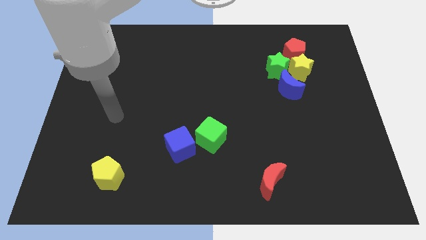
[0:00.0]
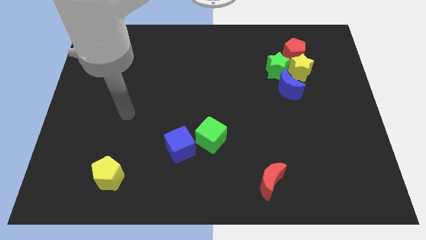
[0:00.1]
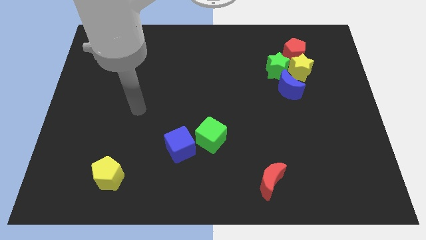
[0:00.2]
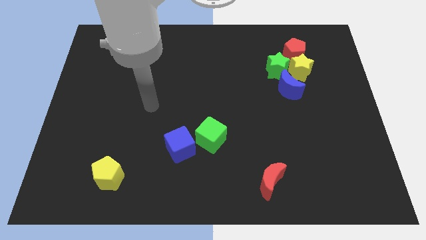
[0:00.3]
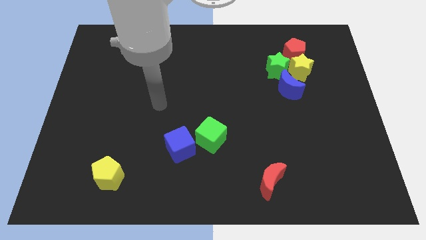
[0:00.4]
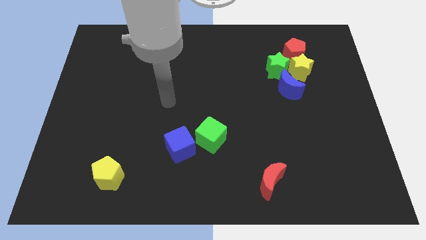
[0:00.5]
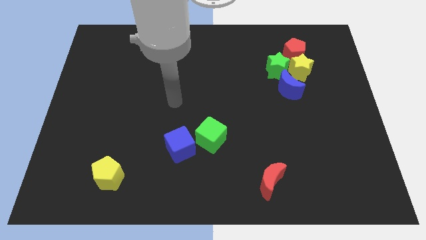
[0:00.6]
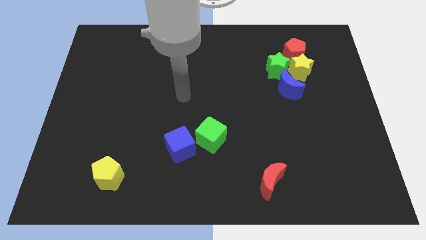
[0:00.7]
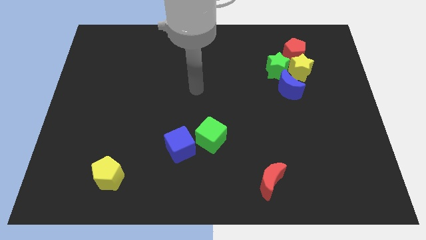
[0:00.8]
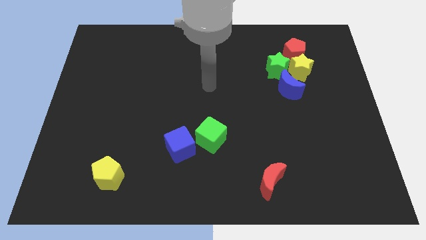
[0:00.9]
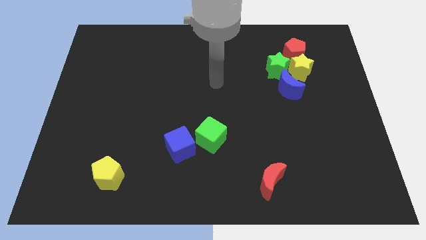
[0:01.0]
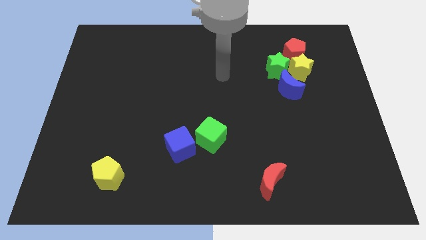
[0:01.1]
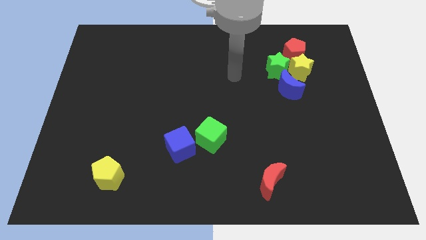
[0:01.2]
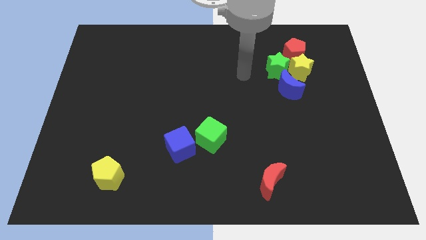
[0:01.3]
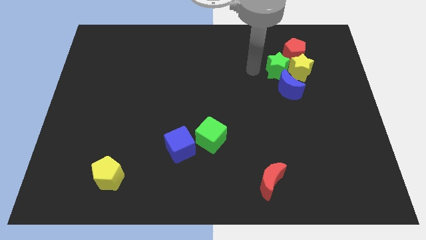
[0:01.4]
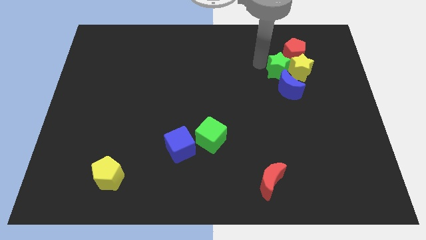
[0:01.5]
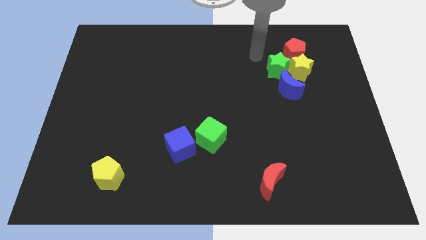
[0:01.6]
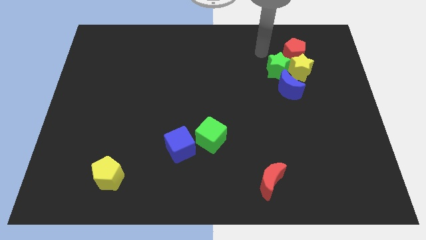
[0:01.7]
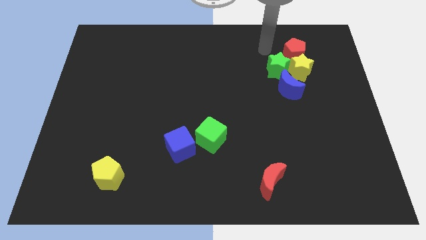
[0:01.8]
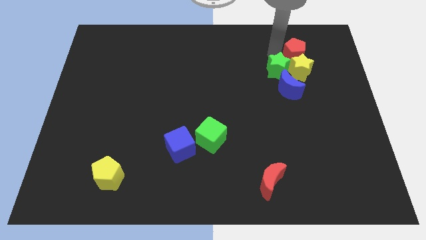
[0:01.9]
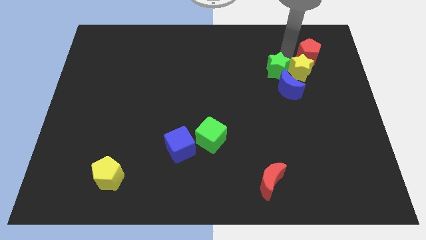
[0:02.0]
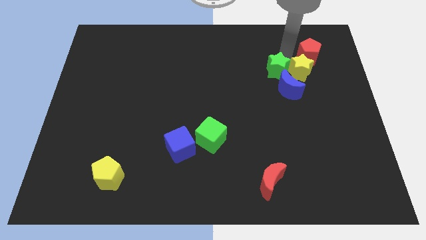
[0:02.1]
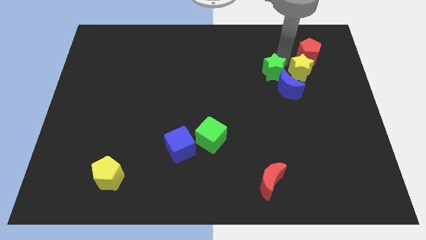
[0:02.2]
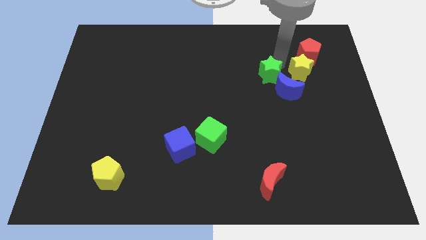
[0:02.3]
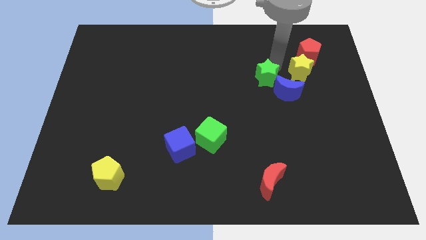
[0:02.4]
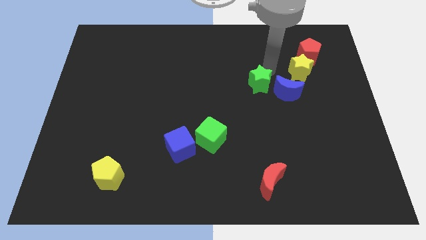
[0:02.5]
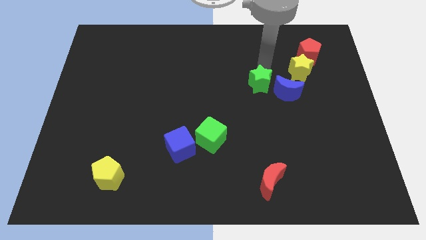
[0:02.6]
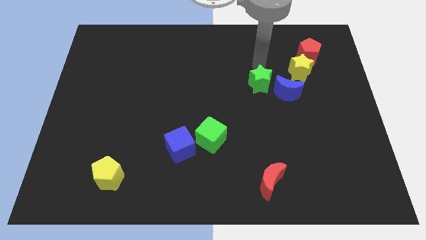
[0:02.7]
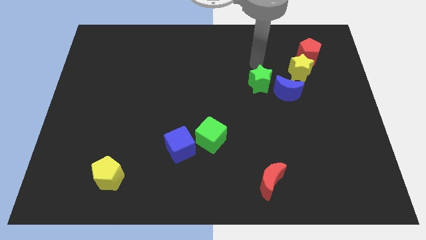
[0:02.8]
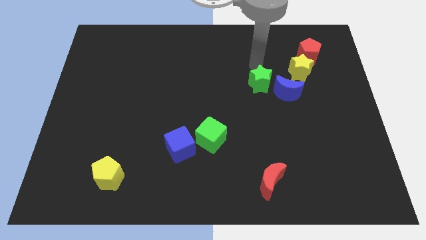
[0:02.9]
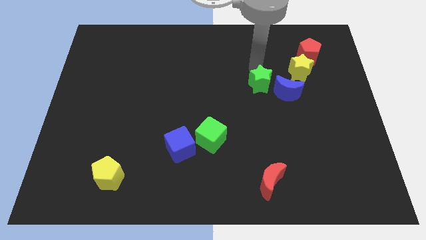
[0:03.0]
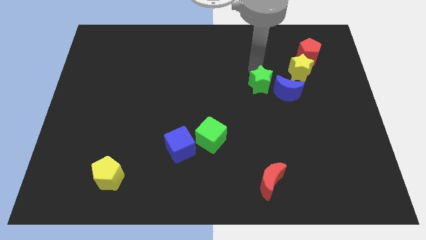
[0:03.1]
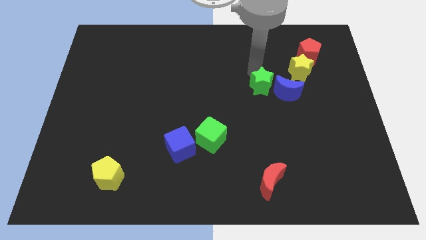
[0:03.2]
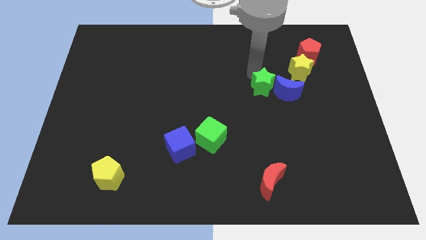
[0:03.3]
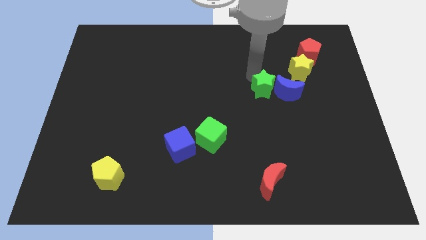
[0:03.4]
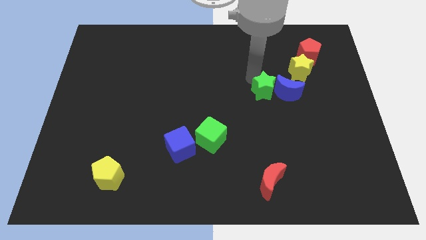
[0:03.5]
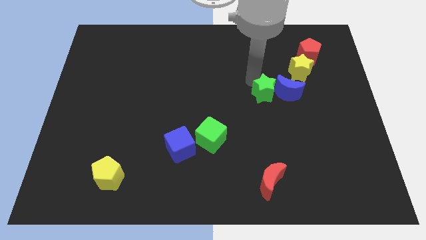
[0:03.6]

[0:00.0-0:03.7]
slide the green star a little down

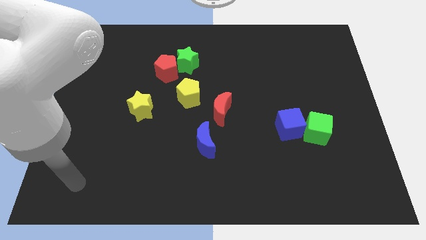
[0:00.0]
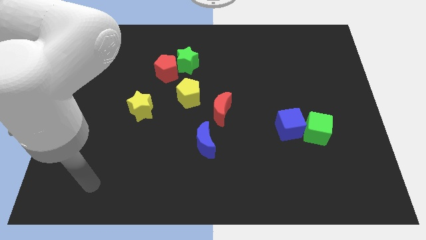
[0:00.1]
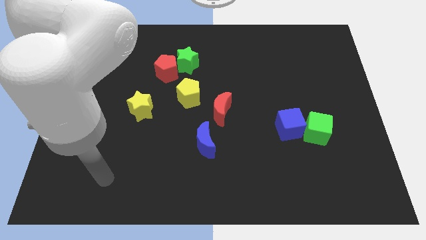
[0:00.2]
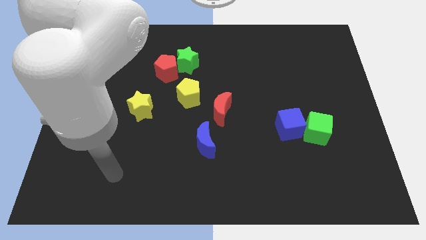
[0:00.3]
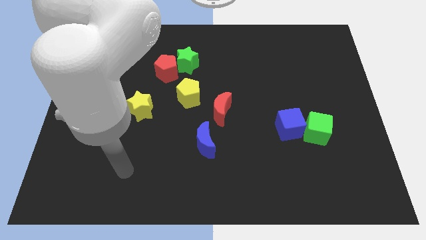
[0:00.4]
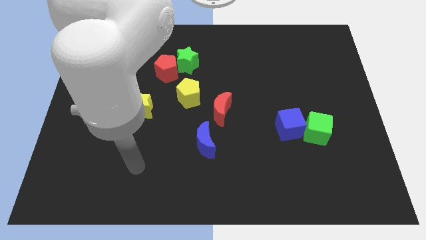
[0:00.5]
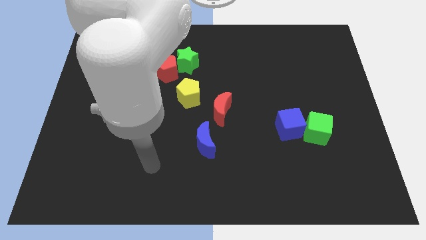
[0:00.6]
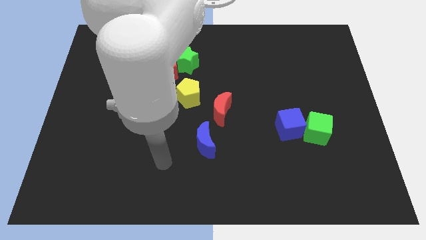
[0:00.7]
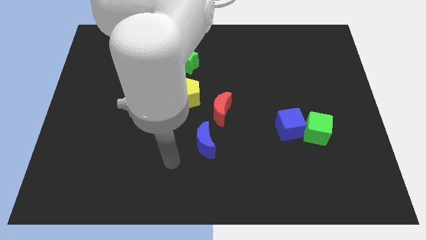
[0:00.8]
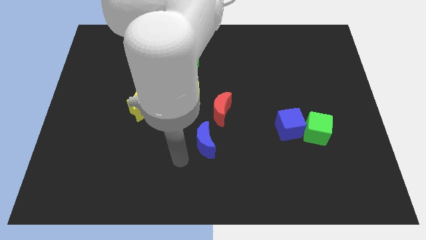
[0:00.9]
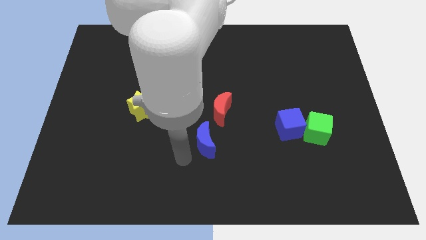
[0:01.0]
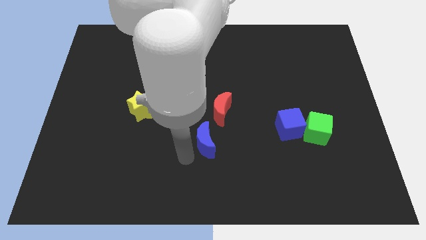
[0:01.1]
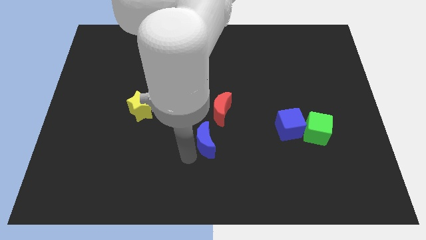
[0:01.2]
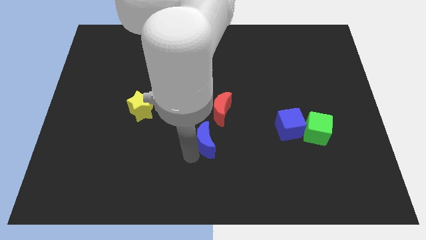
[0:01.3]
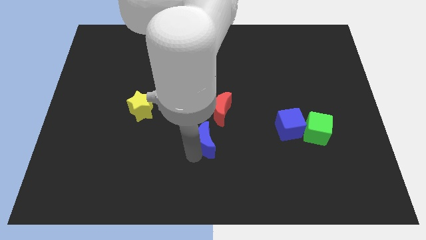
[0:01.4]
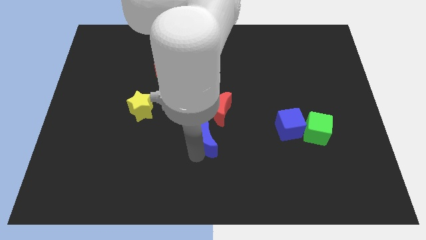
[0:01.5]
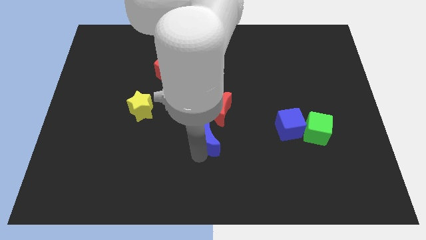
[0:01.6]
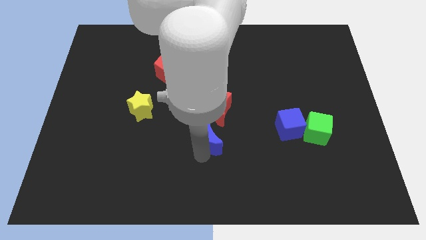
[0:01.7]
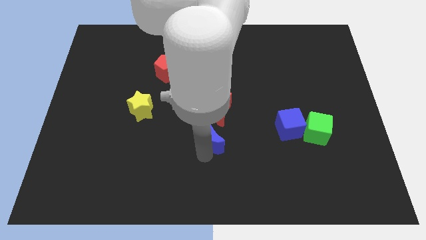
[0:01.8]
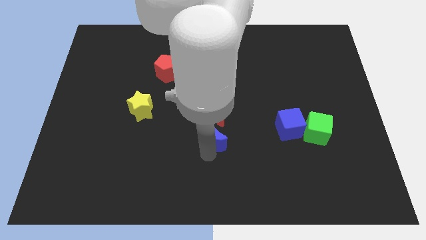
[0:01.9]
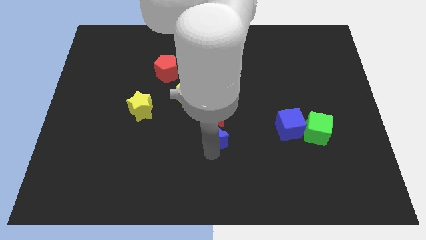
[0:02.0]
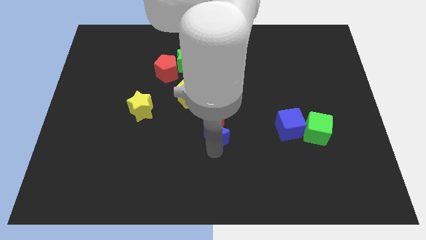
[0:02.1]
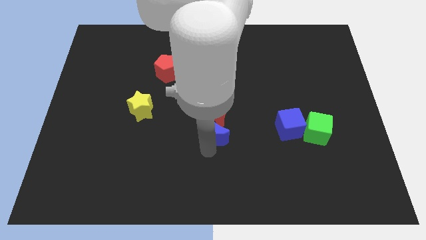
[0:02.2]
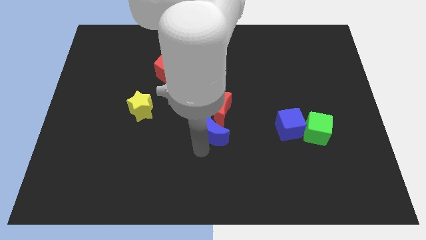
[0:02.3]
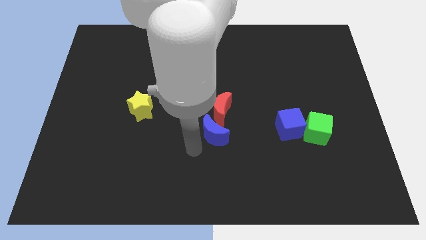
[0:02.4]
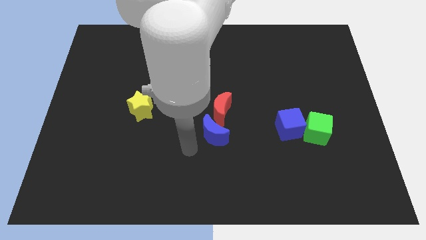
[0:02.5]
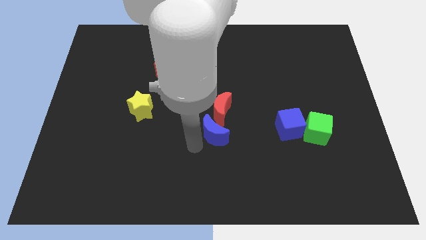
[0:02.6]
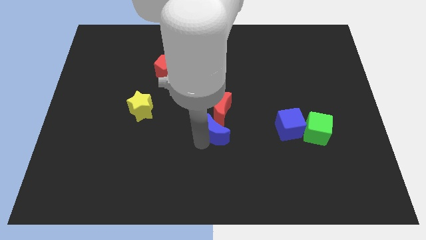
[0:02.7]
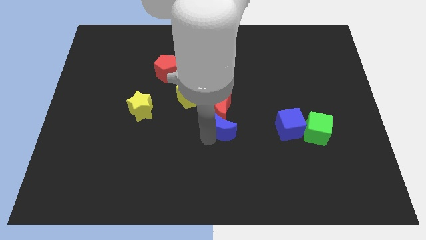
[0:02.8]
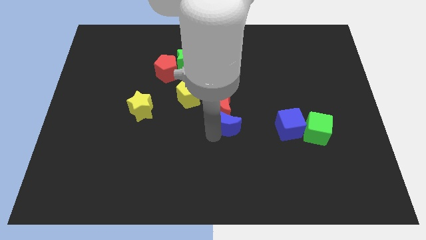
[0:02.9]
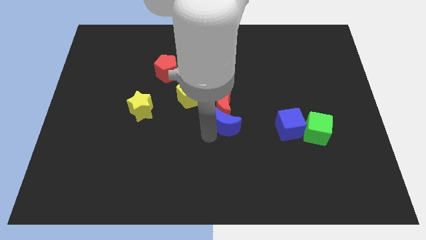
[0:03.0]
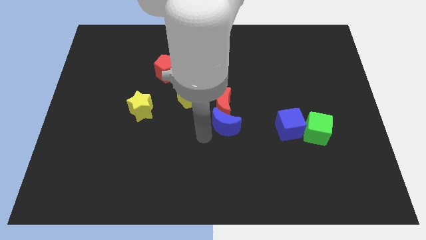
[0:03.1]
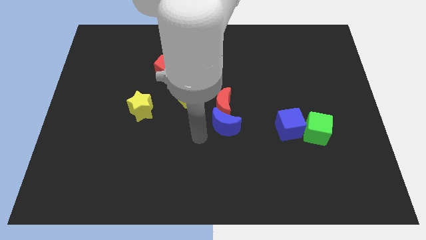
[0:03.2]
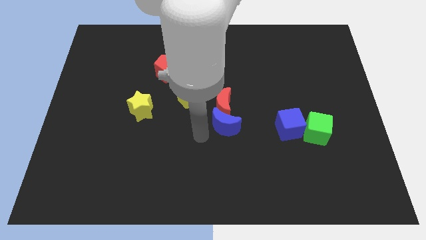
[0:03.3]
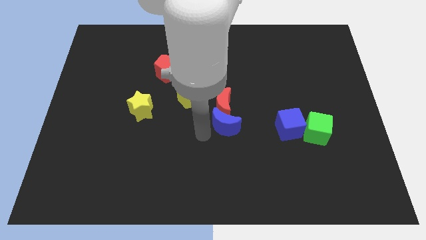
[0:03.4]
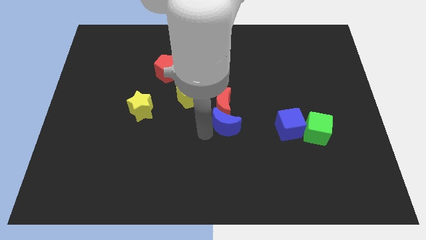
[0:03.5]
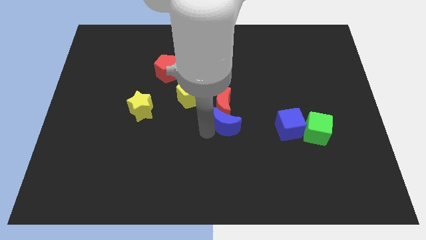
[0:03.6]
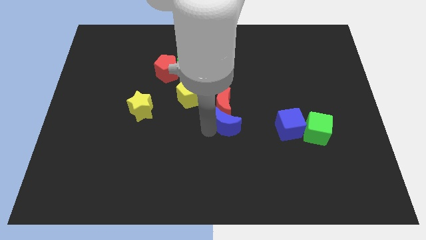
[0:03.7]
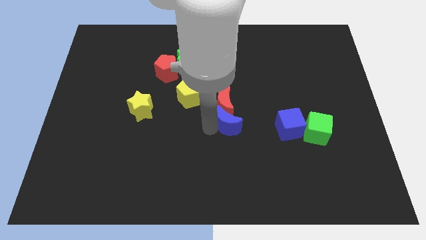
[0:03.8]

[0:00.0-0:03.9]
slightly move the blue moon upwards and to the right

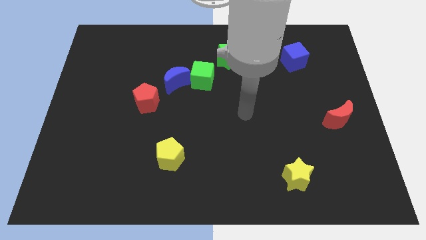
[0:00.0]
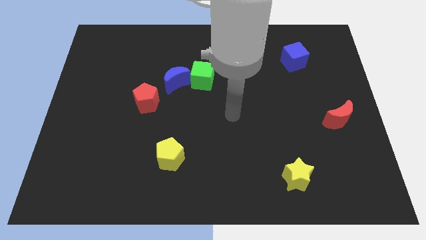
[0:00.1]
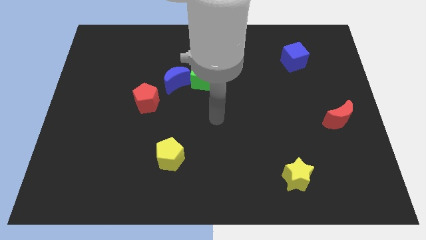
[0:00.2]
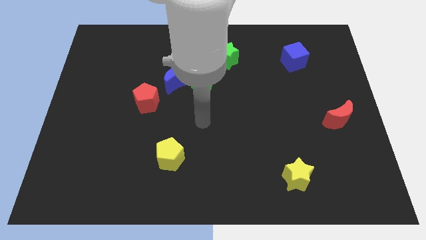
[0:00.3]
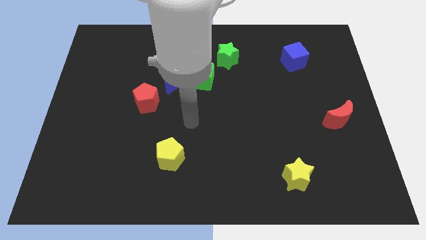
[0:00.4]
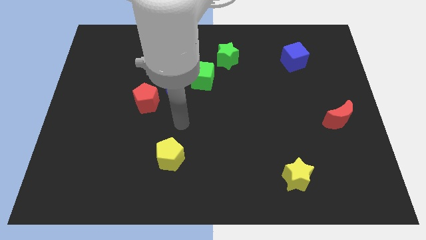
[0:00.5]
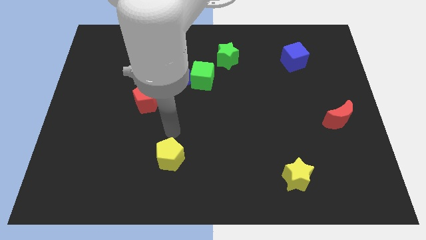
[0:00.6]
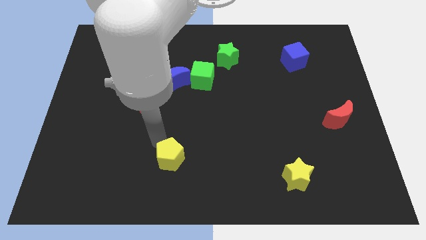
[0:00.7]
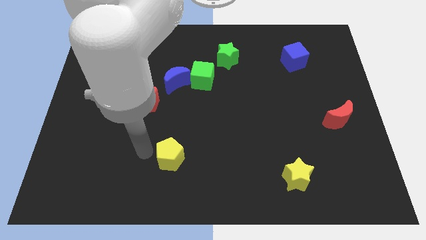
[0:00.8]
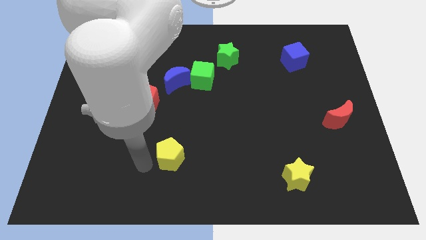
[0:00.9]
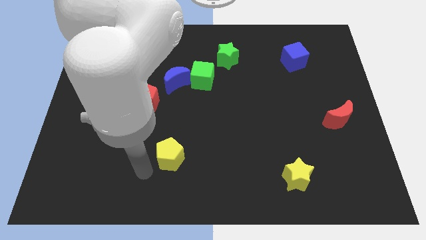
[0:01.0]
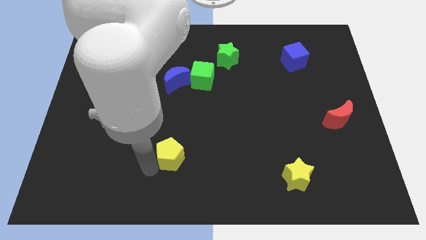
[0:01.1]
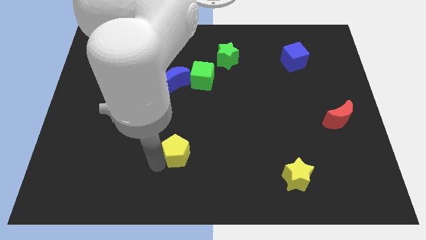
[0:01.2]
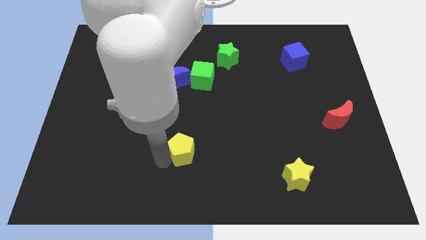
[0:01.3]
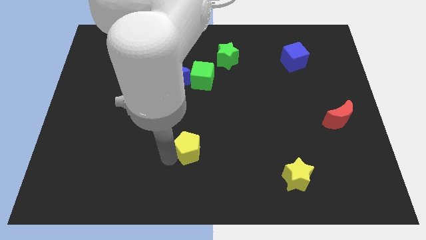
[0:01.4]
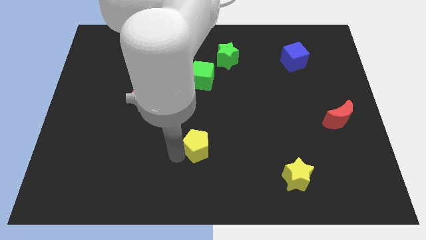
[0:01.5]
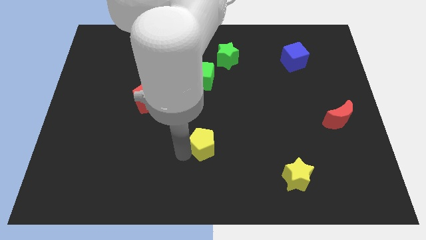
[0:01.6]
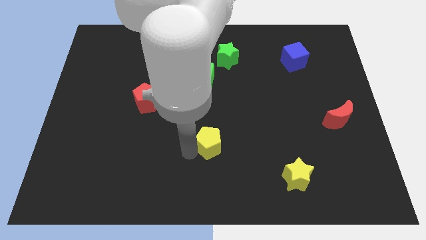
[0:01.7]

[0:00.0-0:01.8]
slide the yellow pentagon a little bit upwards and then right
